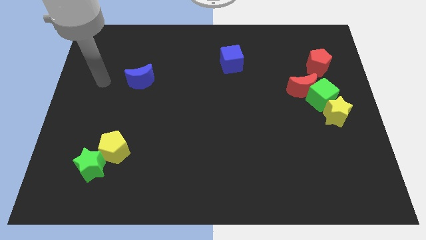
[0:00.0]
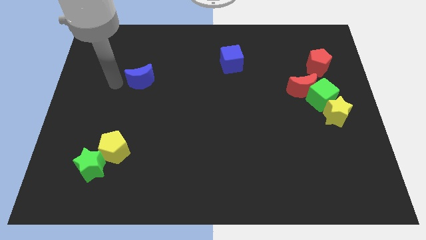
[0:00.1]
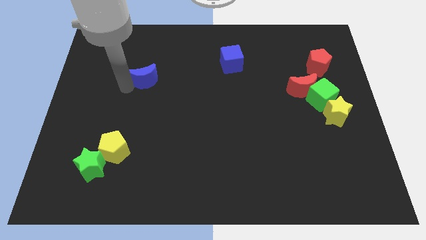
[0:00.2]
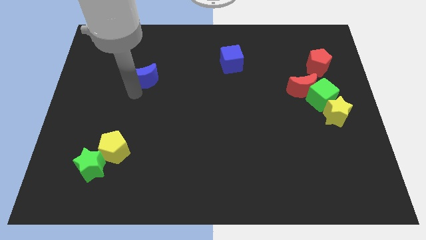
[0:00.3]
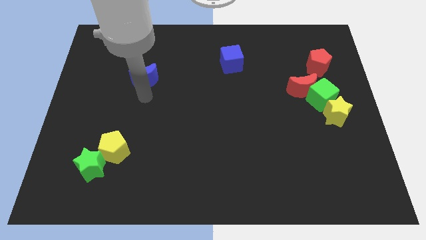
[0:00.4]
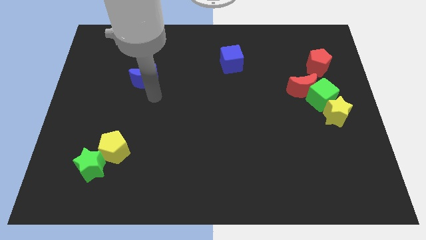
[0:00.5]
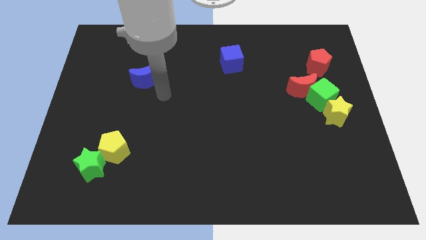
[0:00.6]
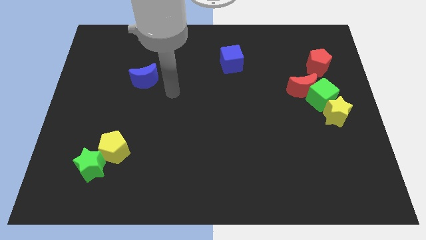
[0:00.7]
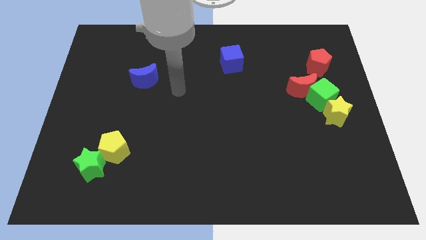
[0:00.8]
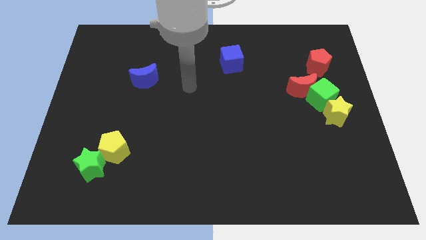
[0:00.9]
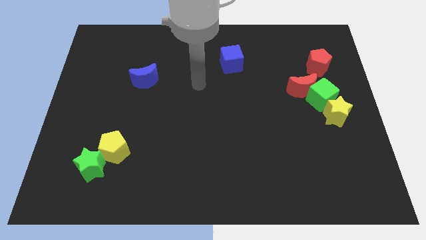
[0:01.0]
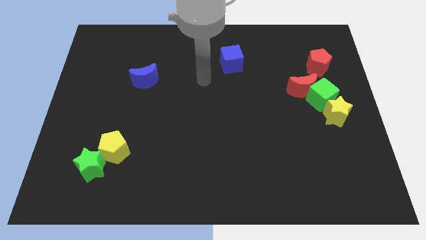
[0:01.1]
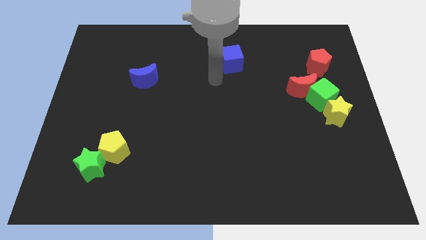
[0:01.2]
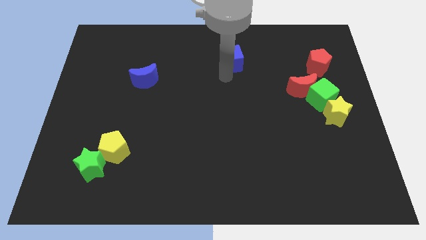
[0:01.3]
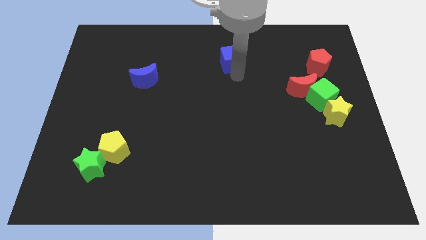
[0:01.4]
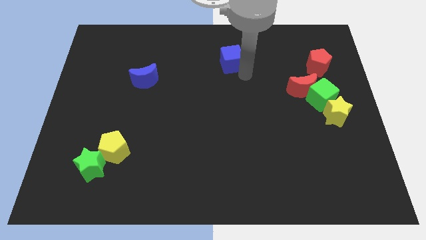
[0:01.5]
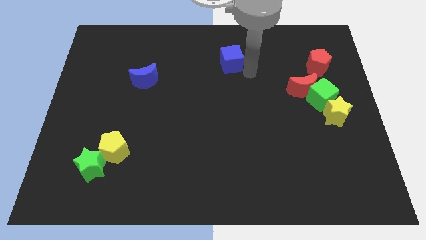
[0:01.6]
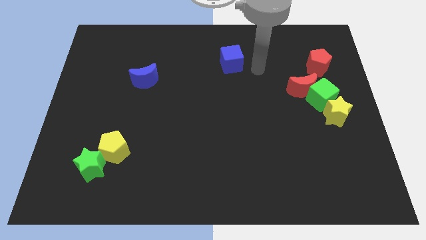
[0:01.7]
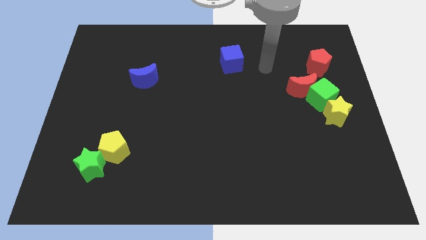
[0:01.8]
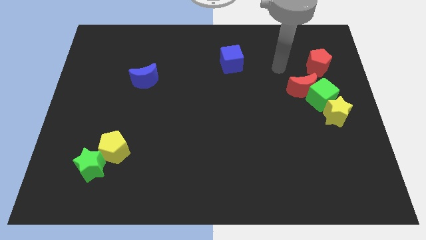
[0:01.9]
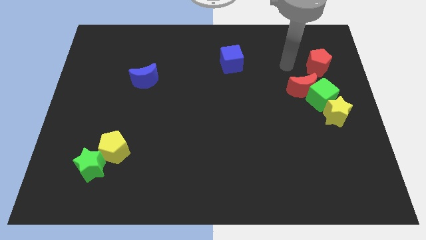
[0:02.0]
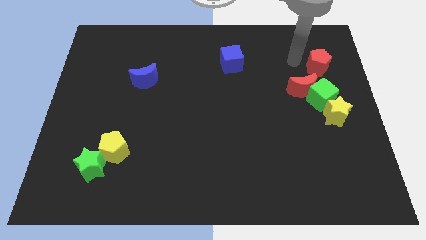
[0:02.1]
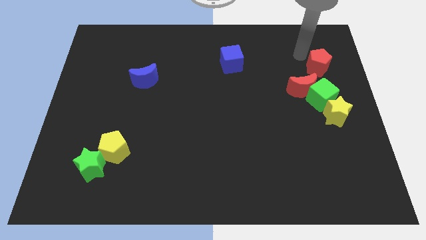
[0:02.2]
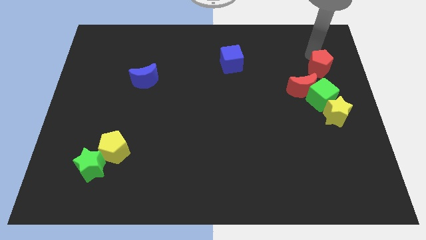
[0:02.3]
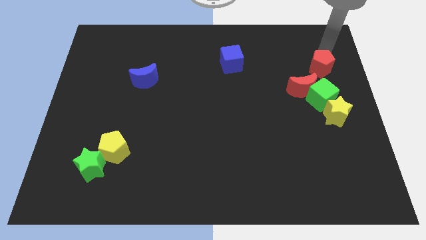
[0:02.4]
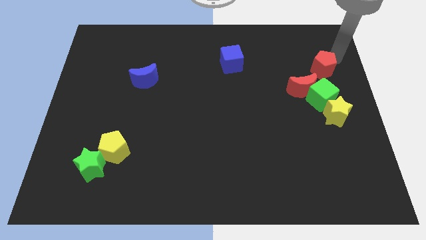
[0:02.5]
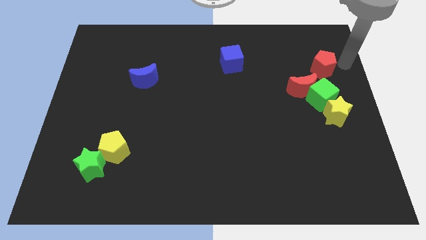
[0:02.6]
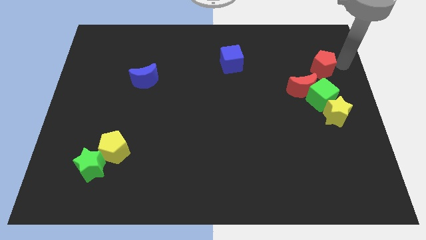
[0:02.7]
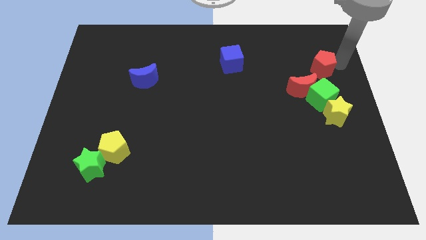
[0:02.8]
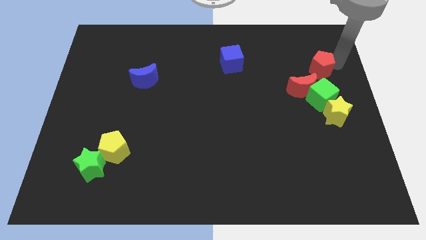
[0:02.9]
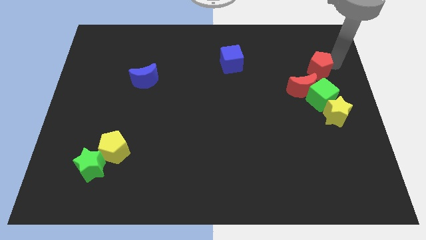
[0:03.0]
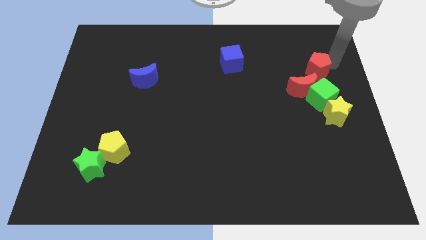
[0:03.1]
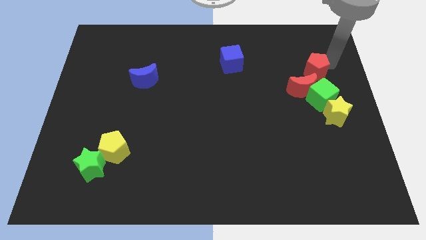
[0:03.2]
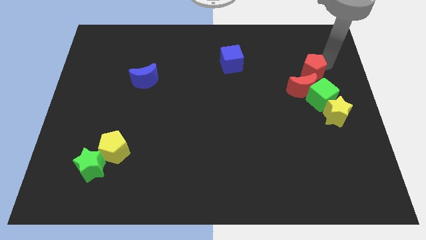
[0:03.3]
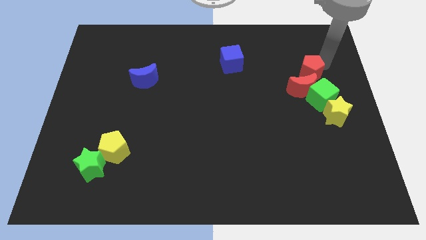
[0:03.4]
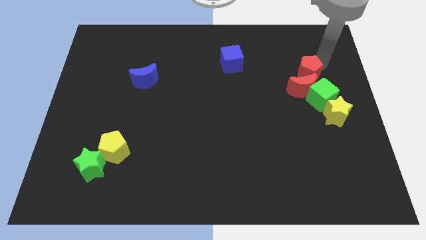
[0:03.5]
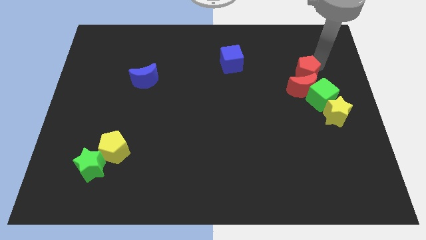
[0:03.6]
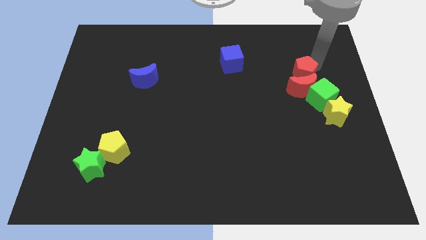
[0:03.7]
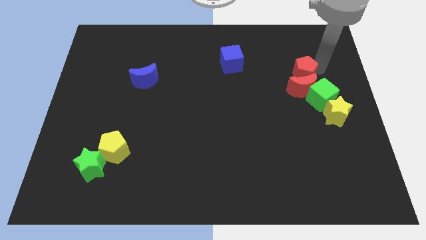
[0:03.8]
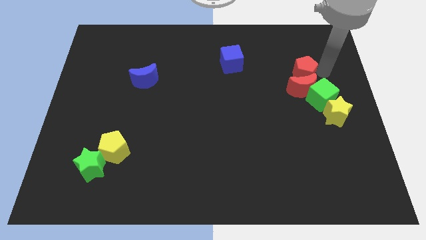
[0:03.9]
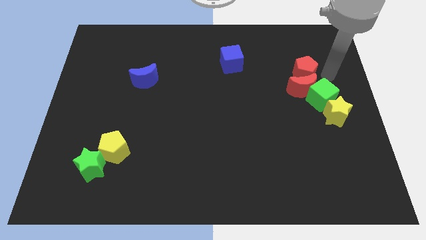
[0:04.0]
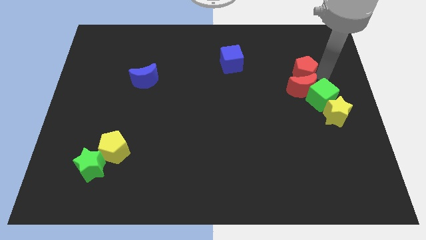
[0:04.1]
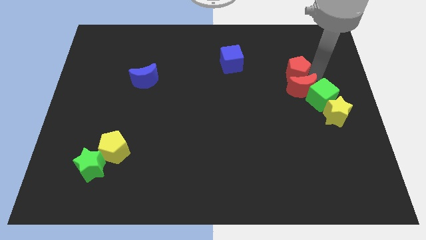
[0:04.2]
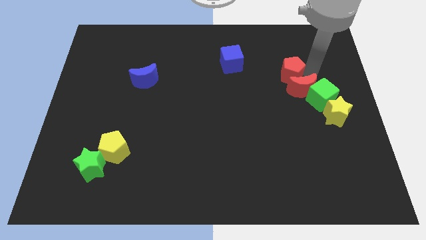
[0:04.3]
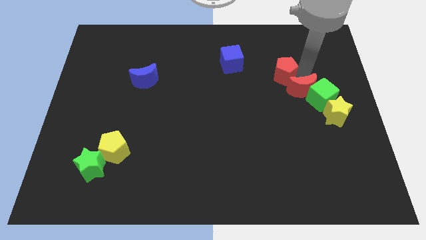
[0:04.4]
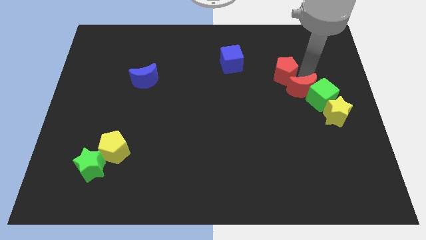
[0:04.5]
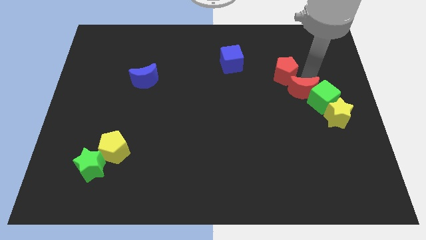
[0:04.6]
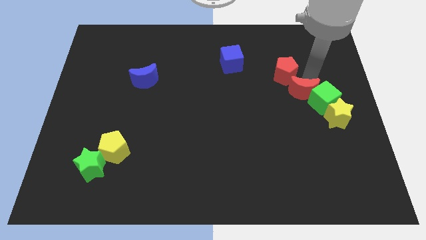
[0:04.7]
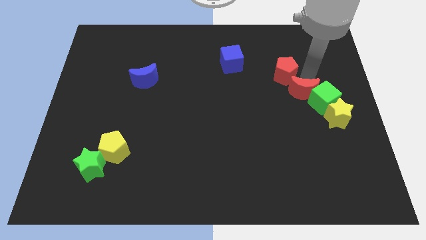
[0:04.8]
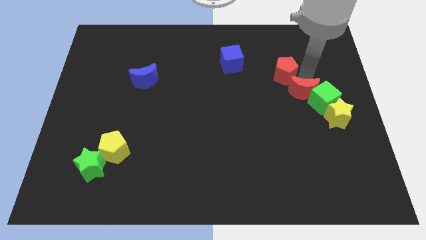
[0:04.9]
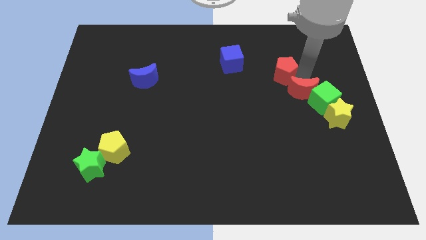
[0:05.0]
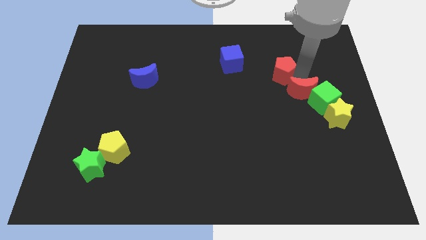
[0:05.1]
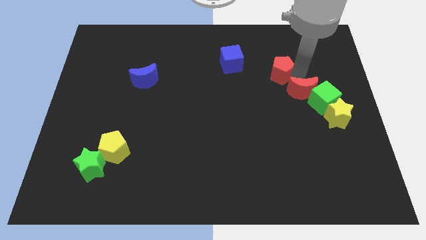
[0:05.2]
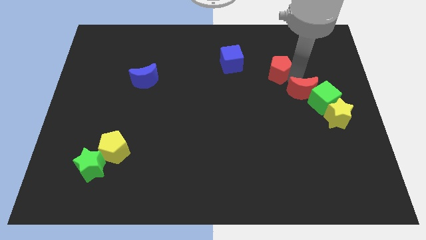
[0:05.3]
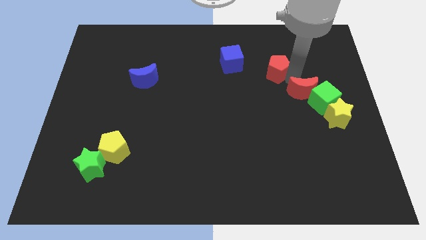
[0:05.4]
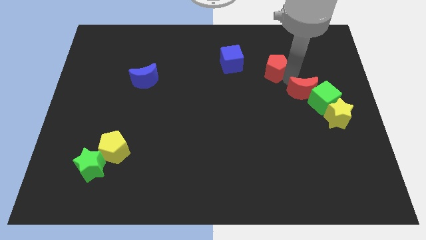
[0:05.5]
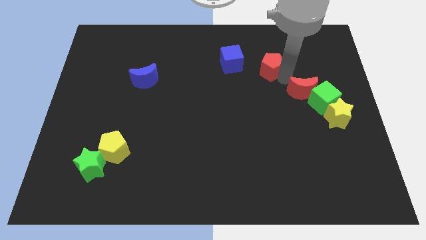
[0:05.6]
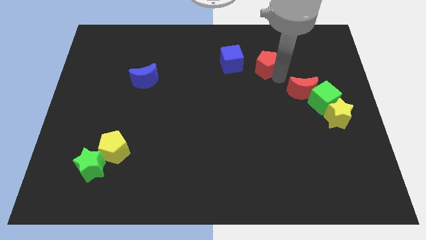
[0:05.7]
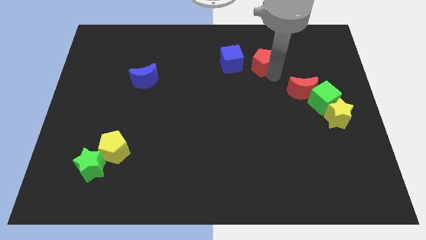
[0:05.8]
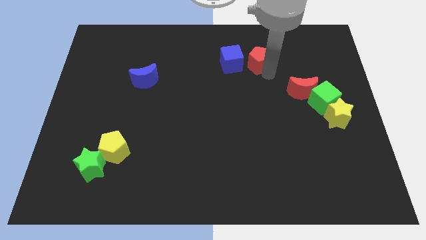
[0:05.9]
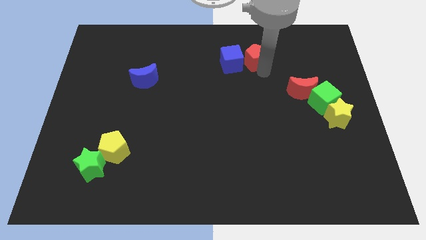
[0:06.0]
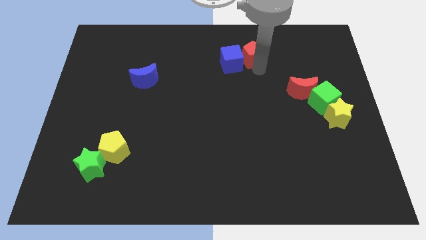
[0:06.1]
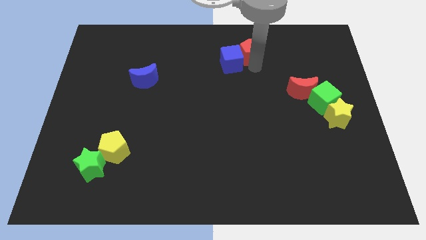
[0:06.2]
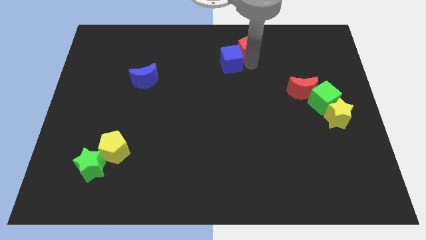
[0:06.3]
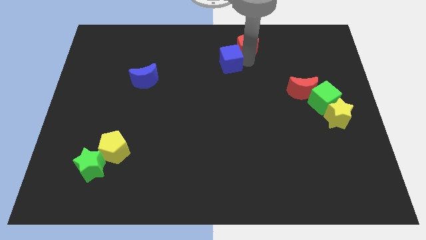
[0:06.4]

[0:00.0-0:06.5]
push the red pentagon to the top
